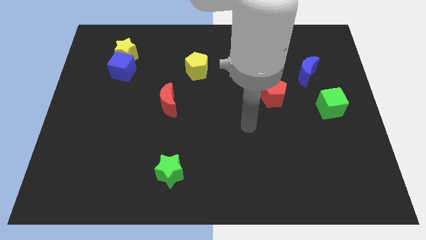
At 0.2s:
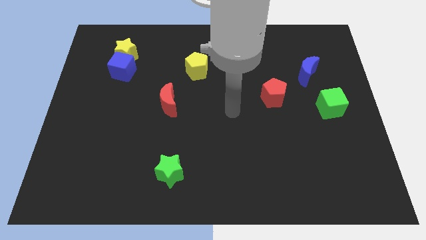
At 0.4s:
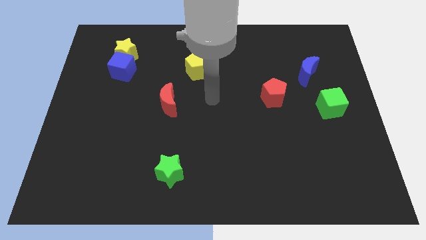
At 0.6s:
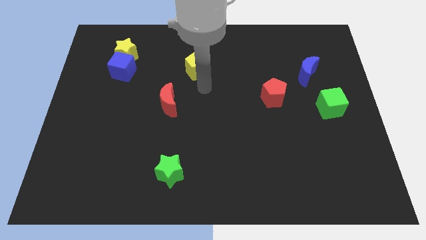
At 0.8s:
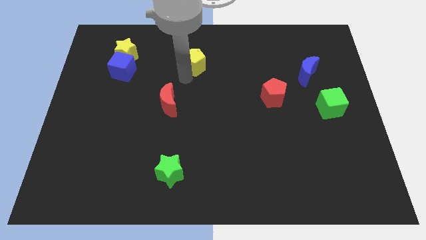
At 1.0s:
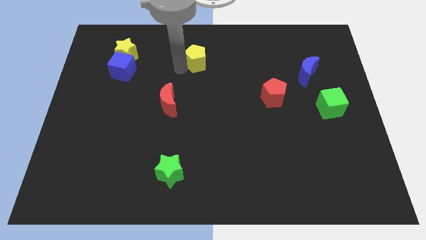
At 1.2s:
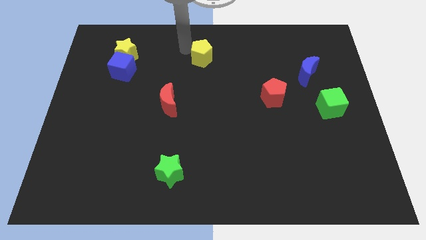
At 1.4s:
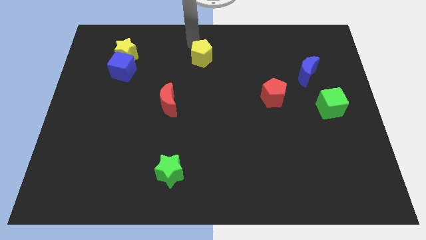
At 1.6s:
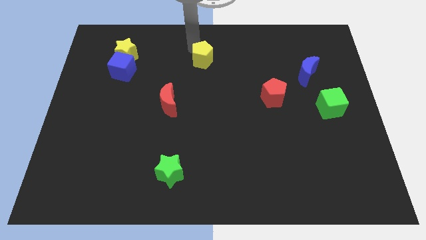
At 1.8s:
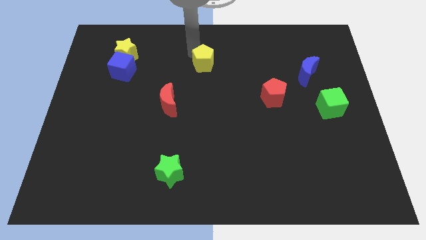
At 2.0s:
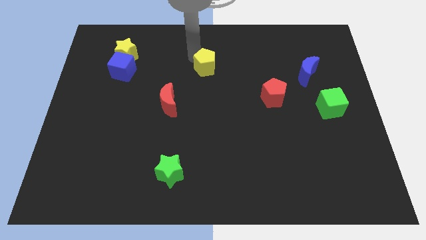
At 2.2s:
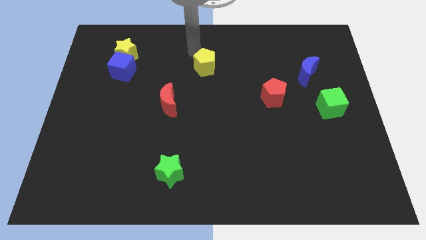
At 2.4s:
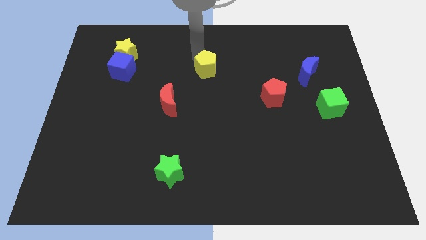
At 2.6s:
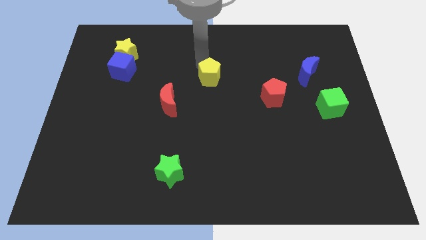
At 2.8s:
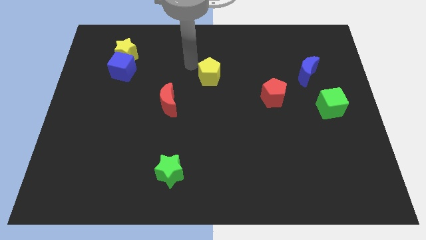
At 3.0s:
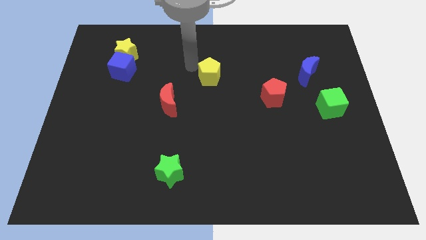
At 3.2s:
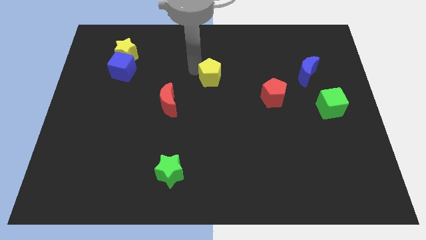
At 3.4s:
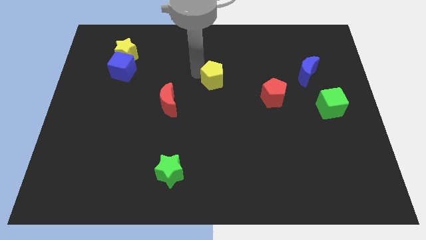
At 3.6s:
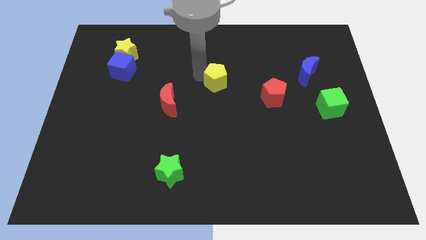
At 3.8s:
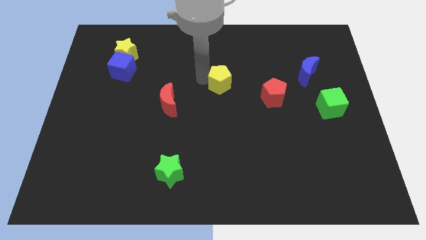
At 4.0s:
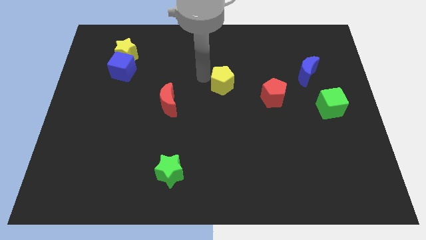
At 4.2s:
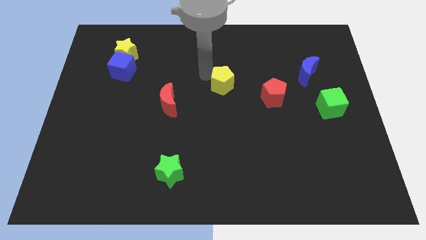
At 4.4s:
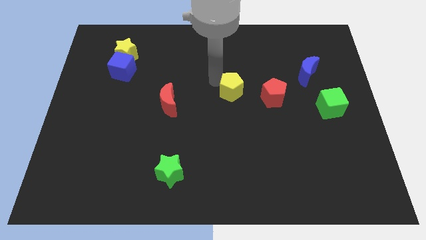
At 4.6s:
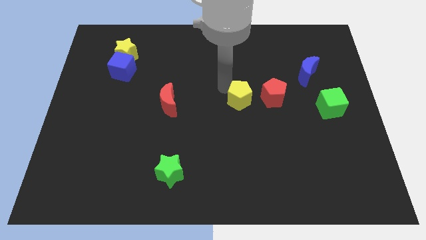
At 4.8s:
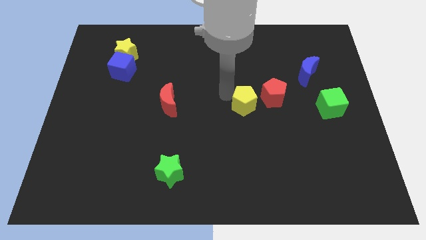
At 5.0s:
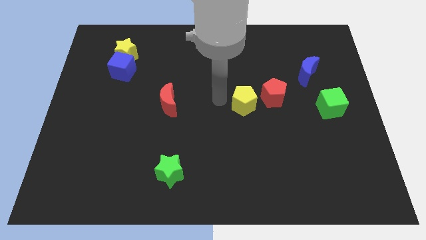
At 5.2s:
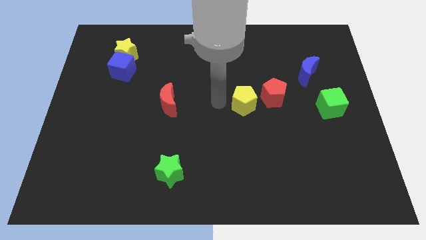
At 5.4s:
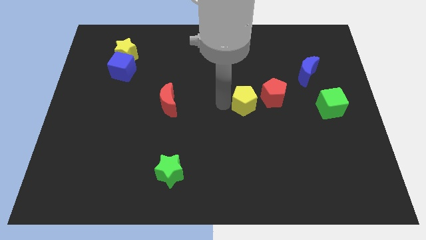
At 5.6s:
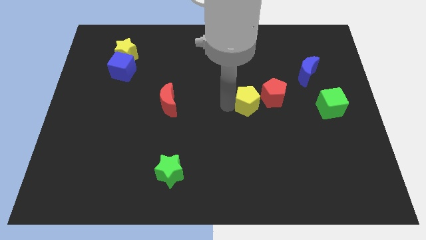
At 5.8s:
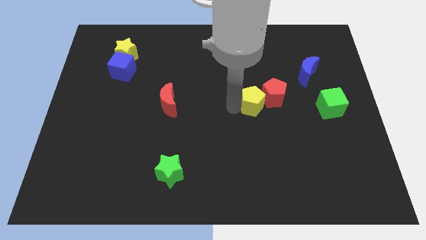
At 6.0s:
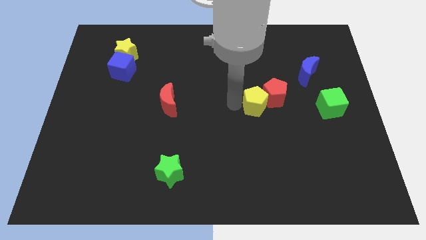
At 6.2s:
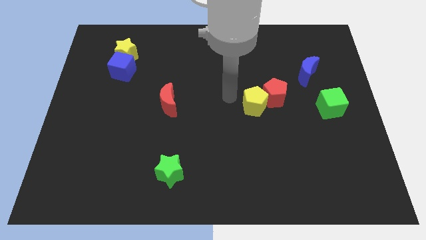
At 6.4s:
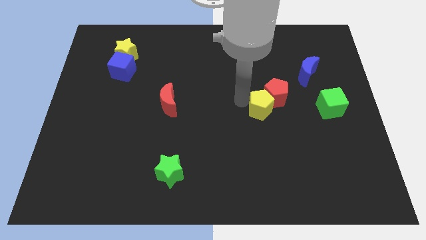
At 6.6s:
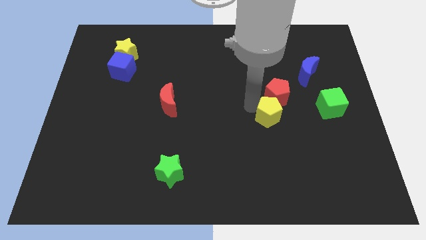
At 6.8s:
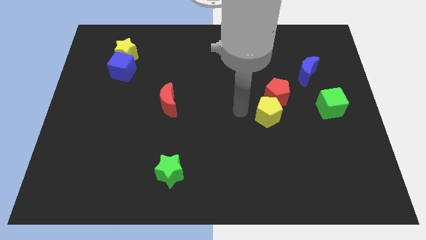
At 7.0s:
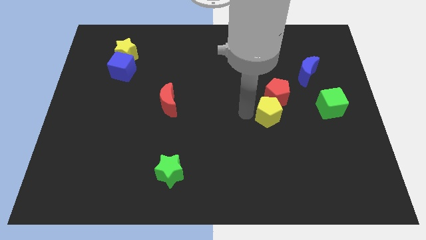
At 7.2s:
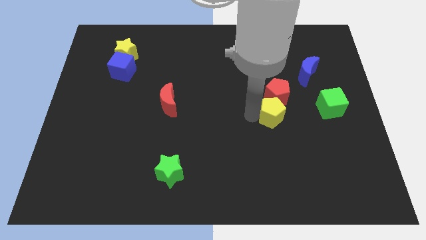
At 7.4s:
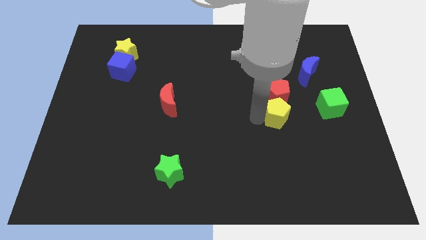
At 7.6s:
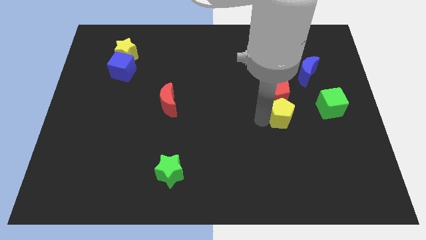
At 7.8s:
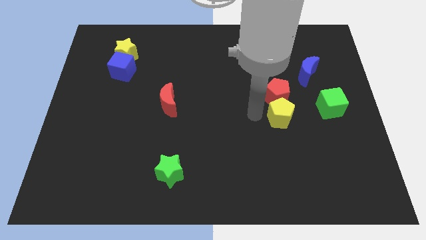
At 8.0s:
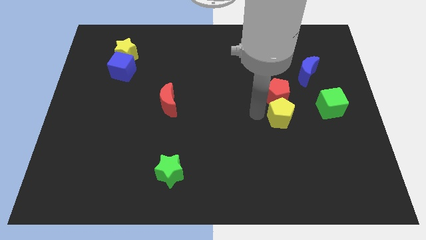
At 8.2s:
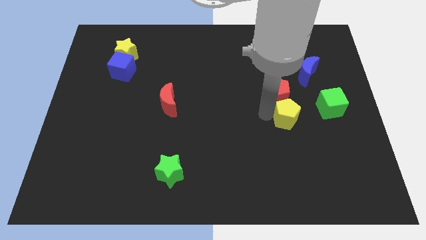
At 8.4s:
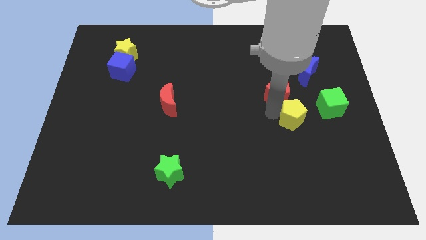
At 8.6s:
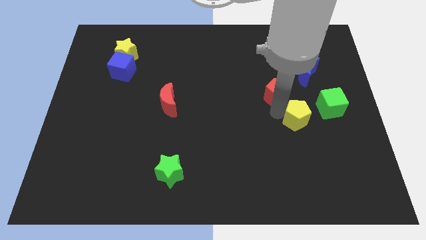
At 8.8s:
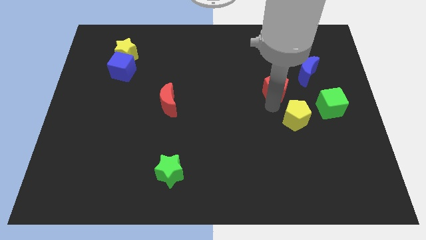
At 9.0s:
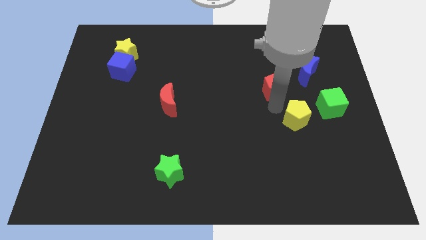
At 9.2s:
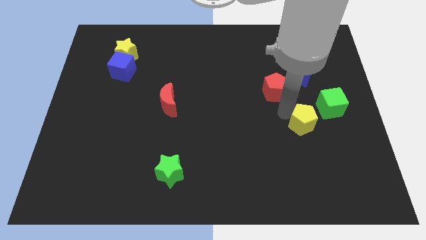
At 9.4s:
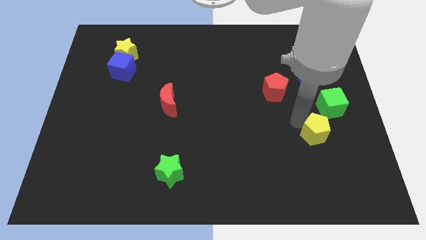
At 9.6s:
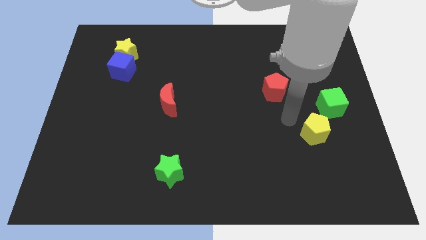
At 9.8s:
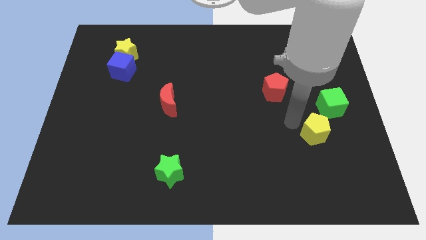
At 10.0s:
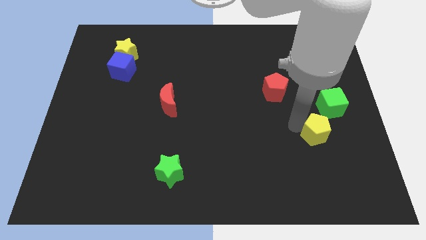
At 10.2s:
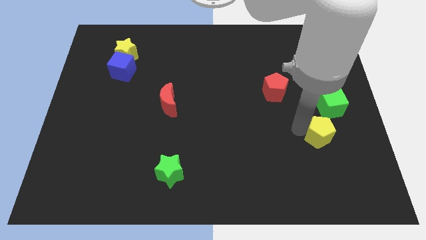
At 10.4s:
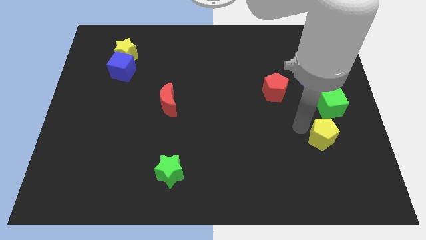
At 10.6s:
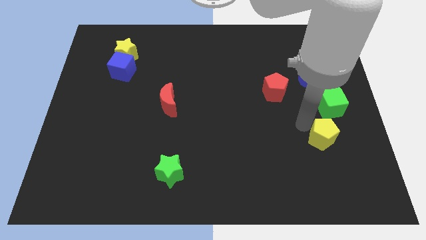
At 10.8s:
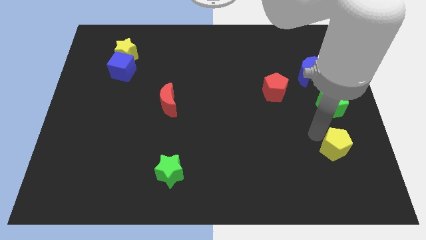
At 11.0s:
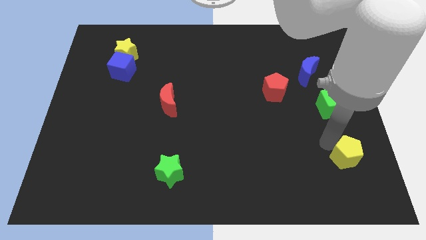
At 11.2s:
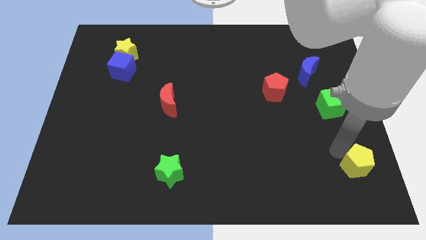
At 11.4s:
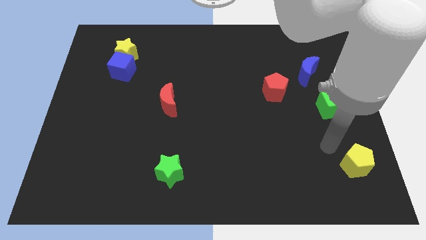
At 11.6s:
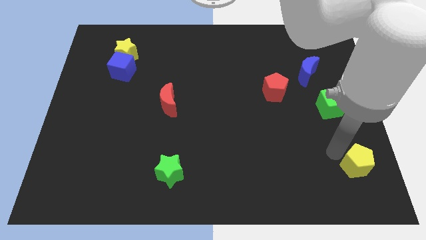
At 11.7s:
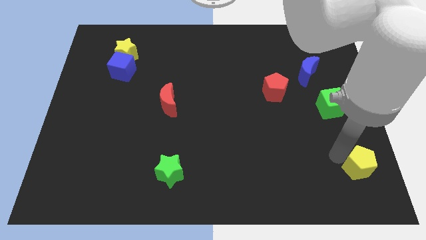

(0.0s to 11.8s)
slide the yellow pentagon to the bottom right

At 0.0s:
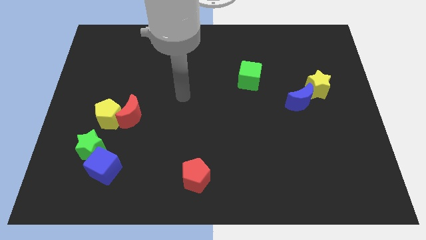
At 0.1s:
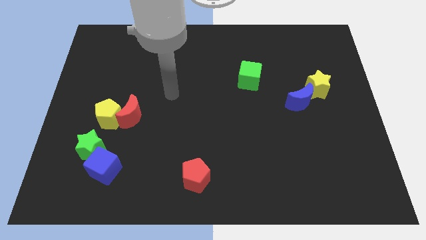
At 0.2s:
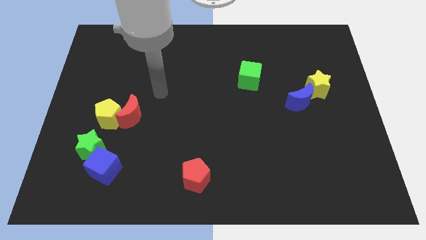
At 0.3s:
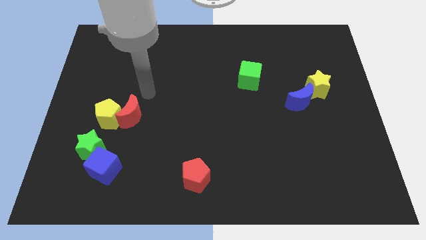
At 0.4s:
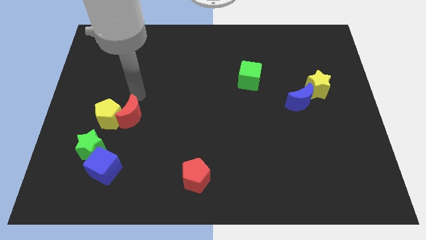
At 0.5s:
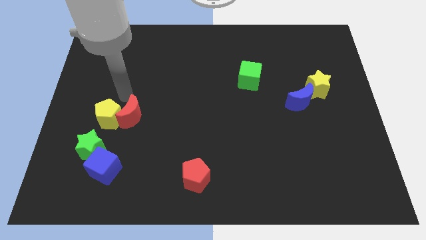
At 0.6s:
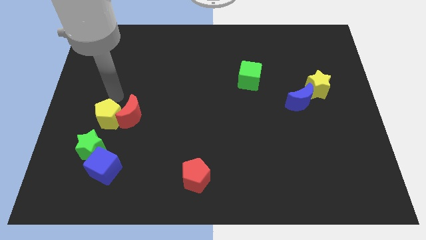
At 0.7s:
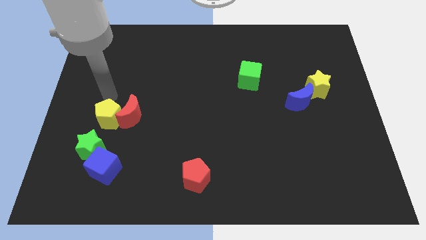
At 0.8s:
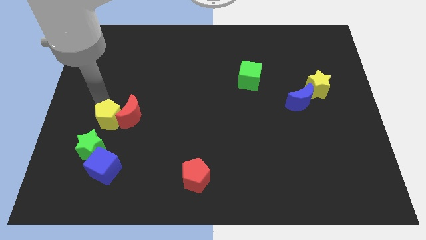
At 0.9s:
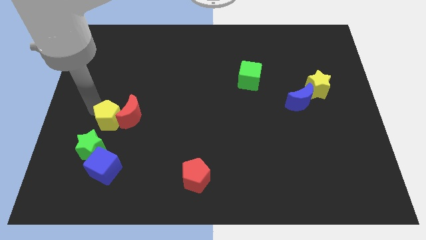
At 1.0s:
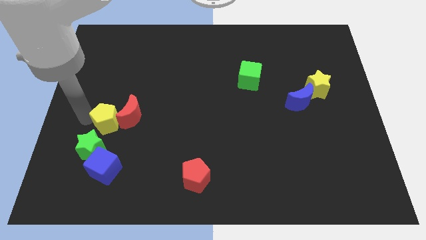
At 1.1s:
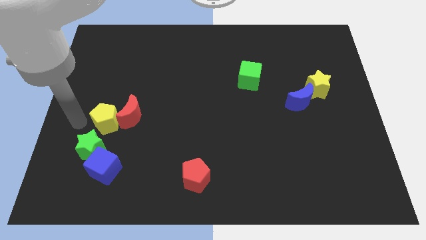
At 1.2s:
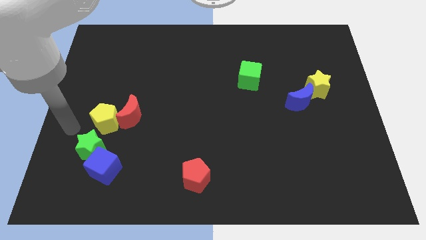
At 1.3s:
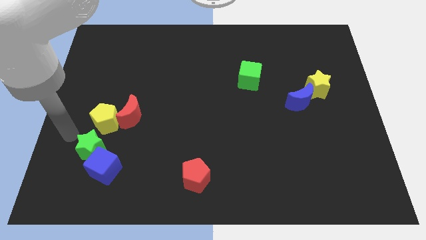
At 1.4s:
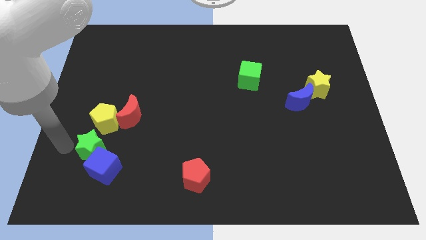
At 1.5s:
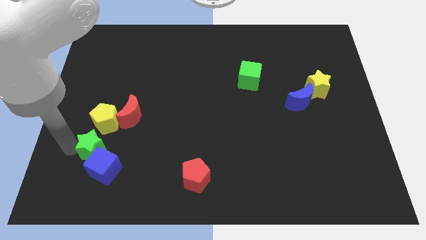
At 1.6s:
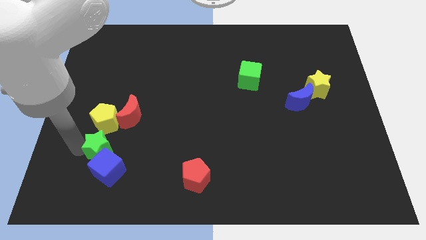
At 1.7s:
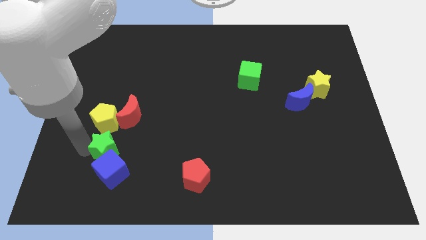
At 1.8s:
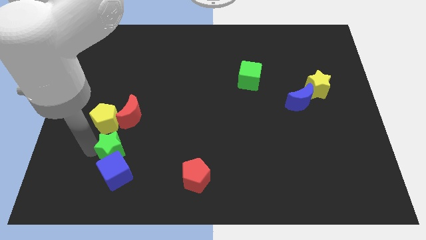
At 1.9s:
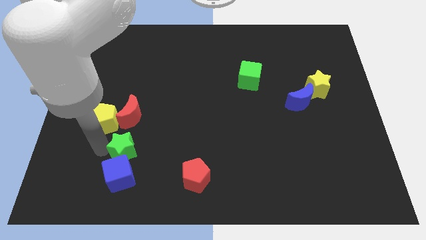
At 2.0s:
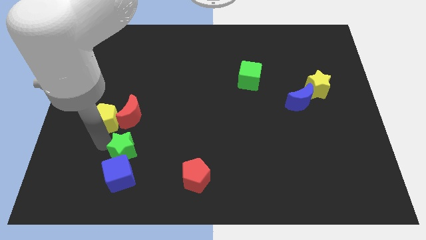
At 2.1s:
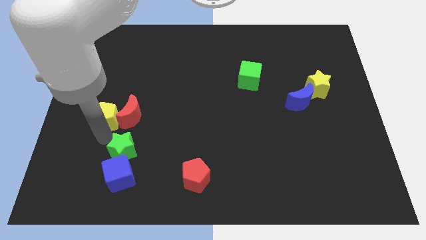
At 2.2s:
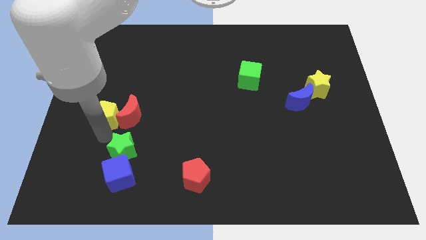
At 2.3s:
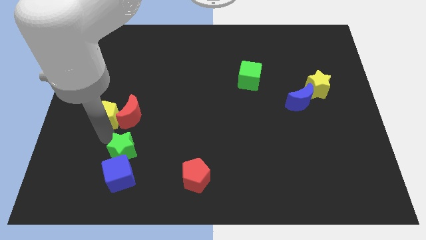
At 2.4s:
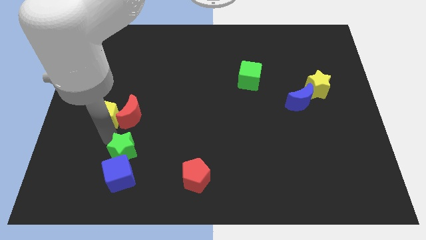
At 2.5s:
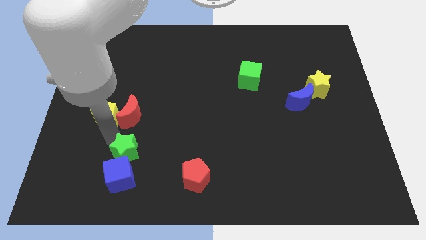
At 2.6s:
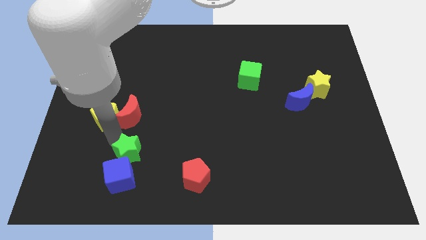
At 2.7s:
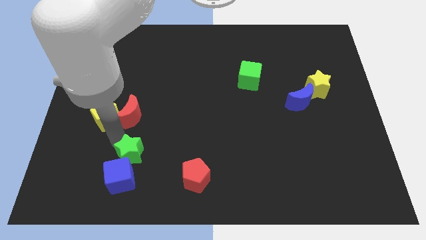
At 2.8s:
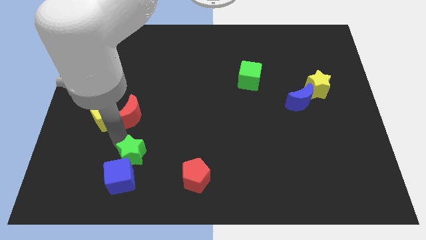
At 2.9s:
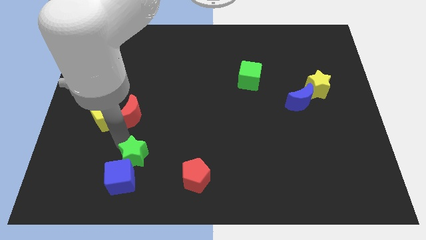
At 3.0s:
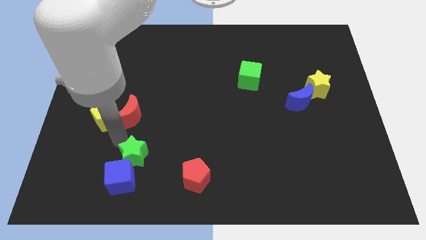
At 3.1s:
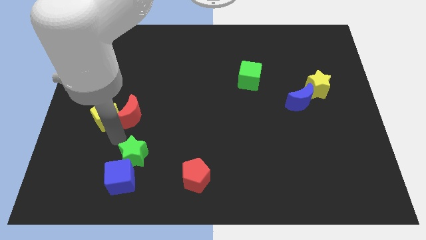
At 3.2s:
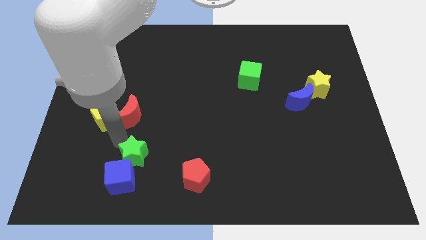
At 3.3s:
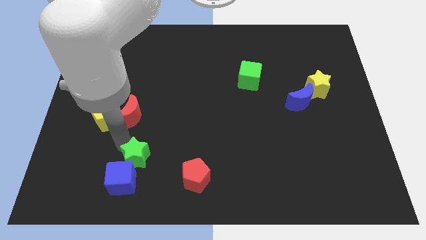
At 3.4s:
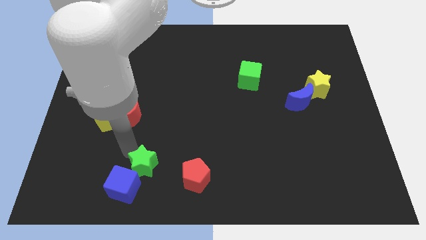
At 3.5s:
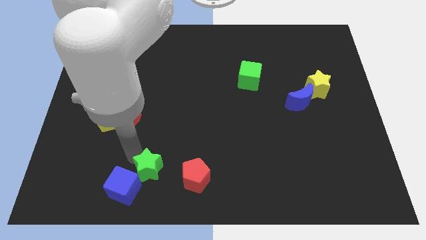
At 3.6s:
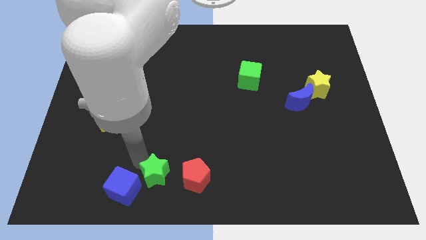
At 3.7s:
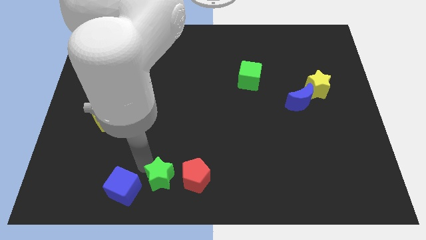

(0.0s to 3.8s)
move the green star to the bottom
